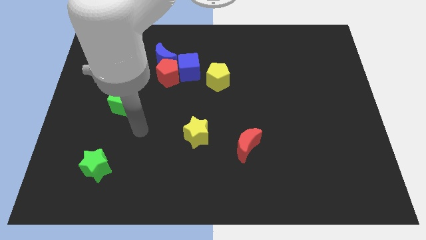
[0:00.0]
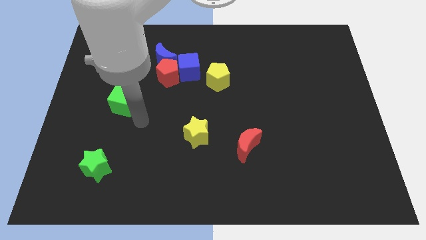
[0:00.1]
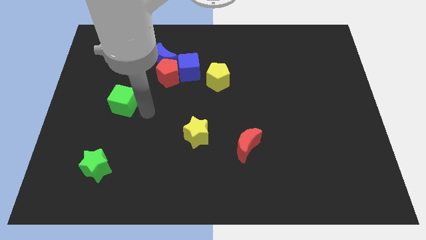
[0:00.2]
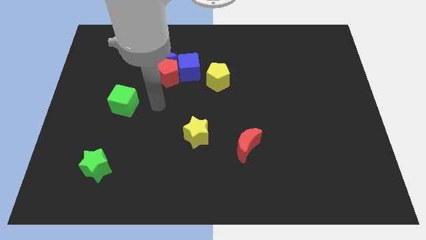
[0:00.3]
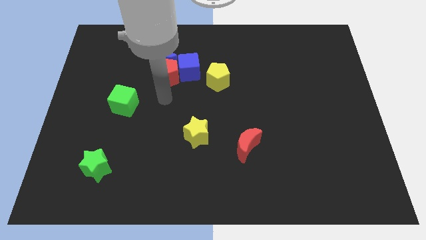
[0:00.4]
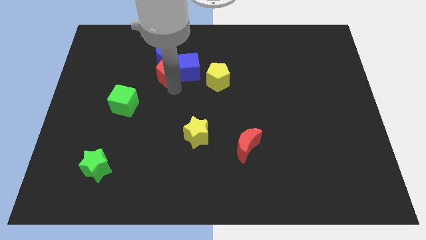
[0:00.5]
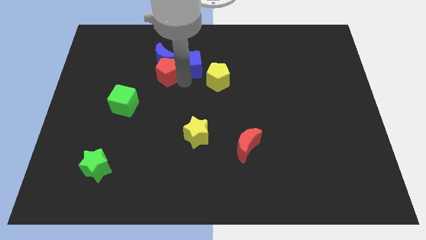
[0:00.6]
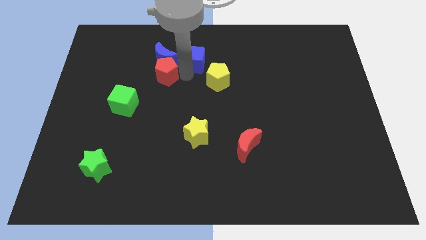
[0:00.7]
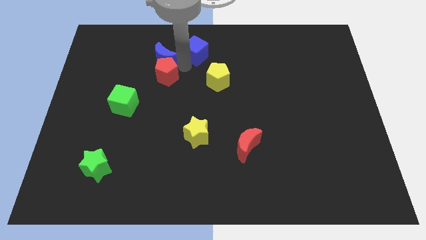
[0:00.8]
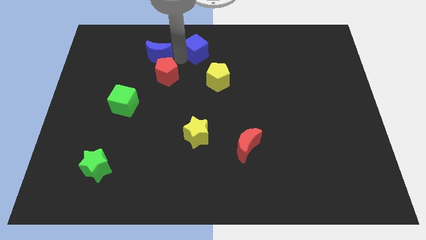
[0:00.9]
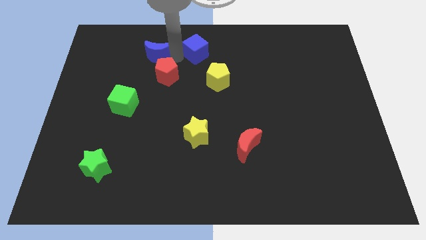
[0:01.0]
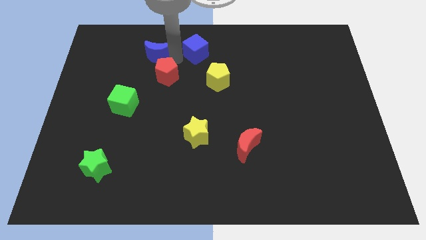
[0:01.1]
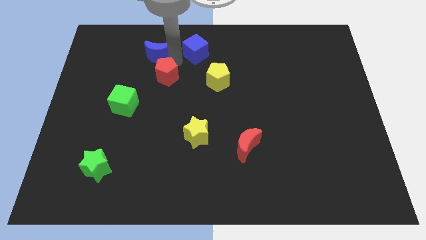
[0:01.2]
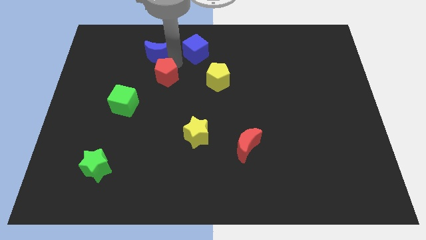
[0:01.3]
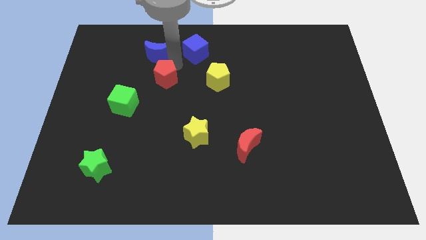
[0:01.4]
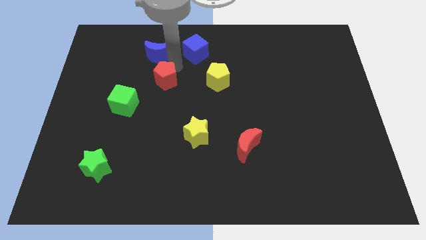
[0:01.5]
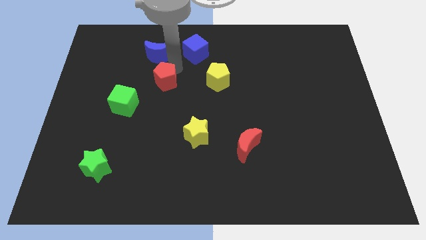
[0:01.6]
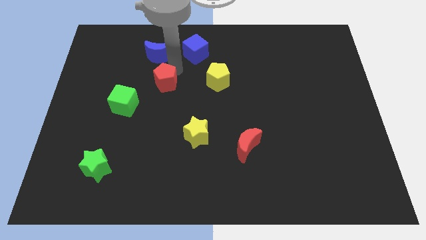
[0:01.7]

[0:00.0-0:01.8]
separate the red pentagon from the blue cube and blue moon

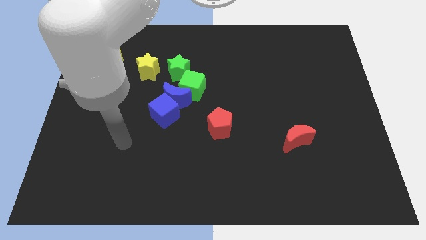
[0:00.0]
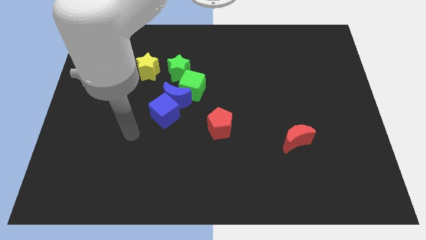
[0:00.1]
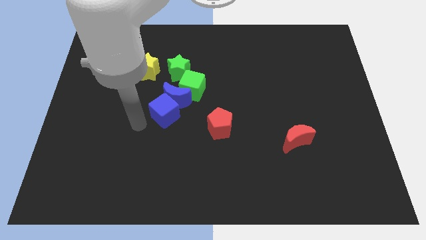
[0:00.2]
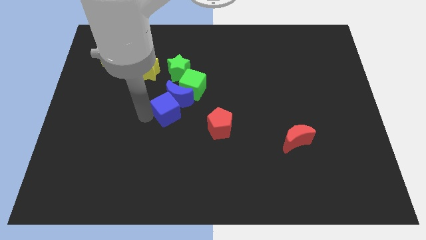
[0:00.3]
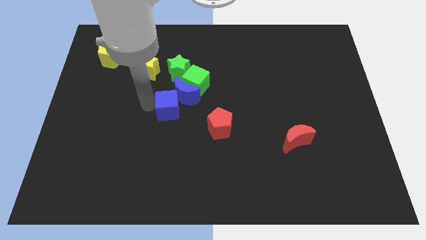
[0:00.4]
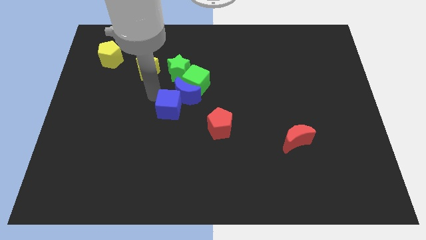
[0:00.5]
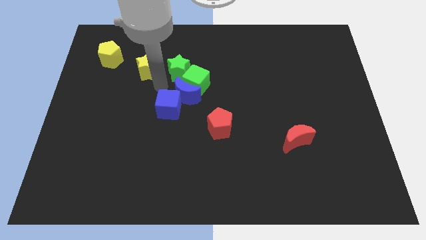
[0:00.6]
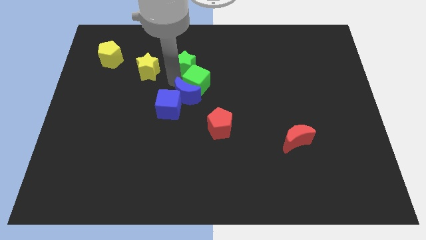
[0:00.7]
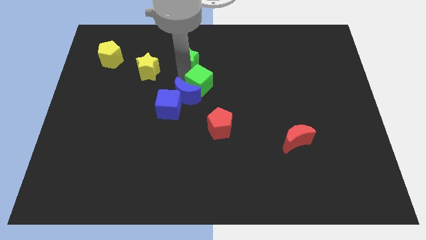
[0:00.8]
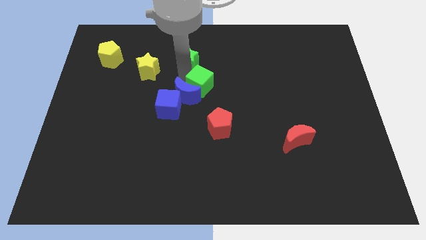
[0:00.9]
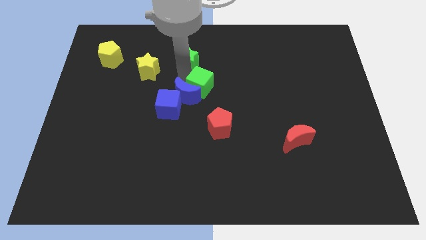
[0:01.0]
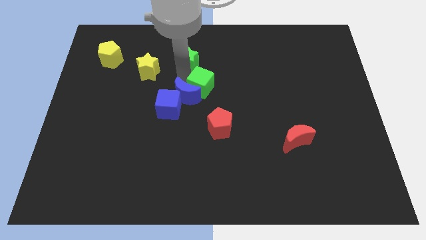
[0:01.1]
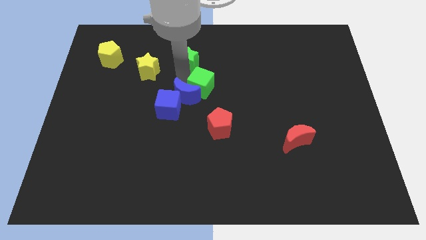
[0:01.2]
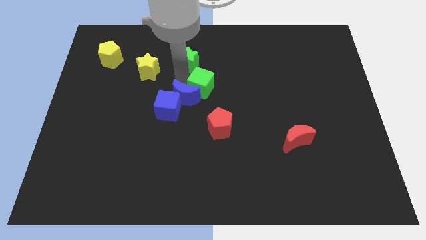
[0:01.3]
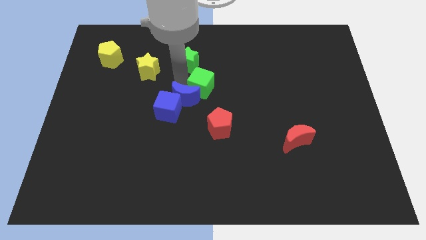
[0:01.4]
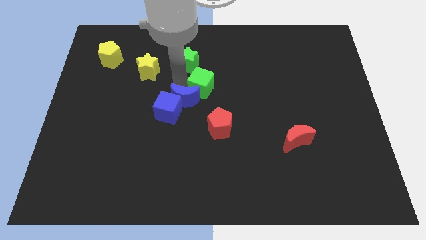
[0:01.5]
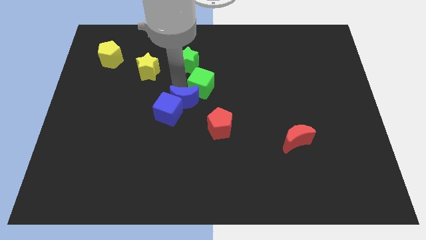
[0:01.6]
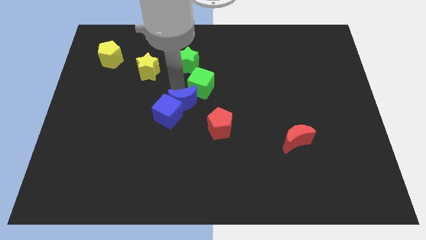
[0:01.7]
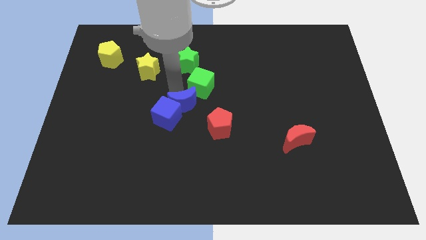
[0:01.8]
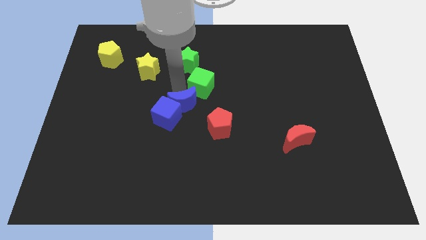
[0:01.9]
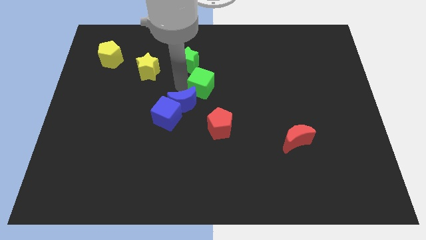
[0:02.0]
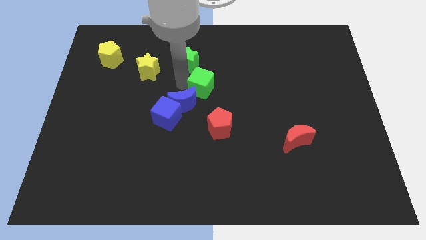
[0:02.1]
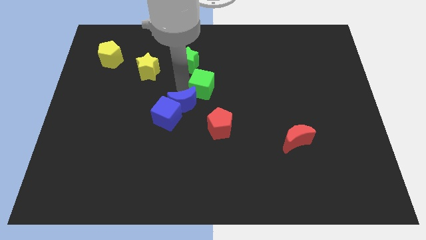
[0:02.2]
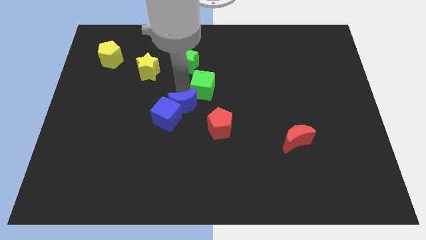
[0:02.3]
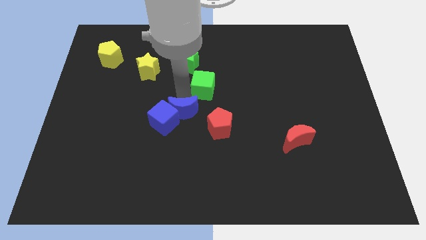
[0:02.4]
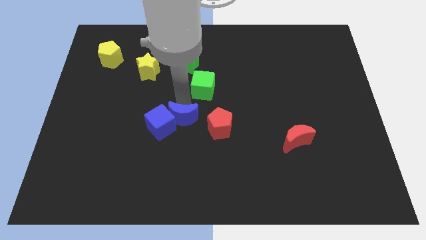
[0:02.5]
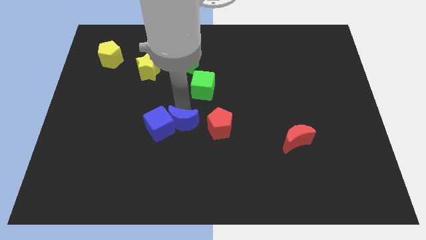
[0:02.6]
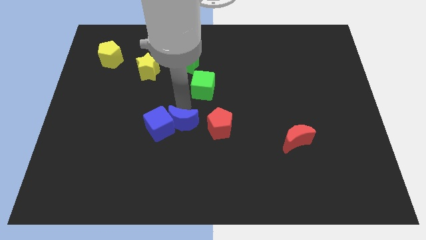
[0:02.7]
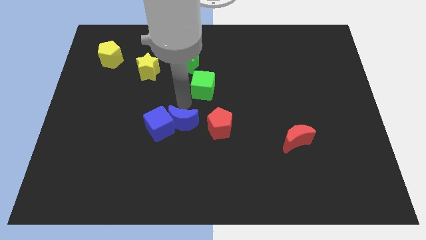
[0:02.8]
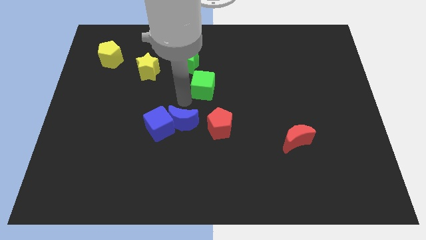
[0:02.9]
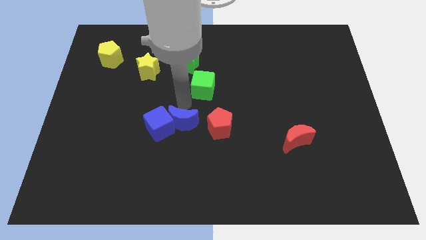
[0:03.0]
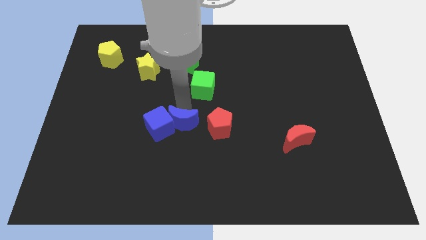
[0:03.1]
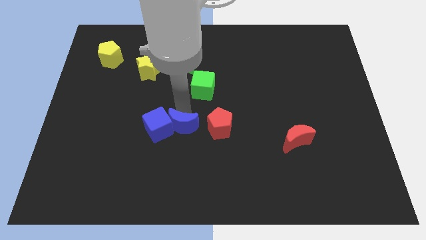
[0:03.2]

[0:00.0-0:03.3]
move the blue moon away from the blue cube, green cube, and green star

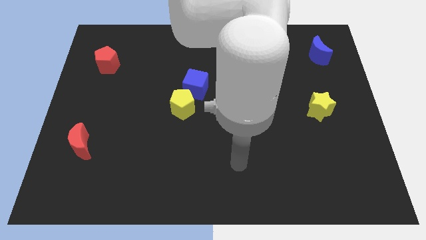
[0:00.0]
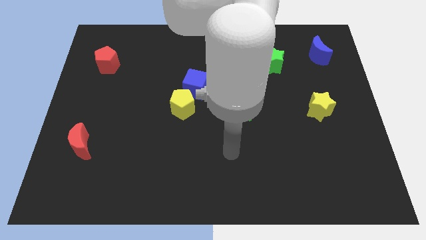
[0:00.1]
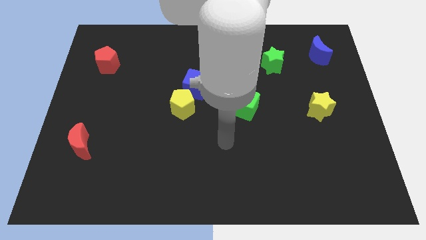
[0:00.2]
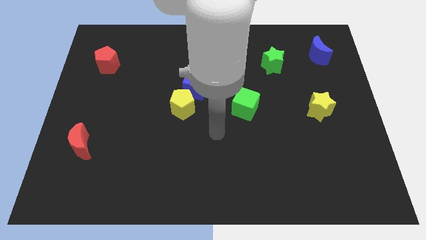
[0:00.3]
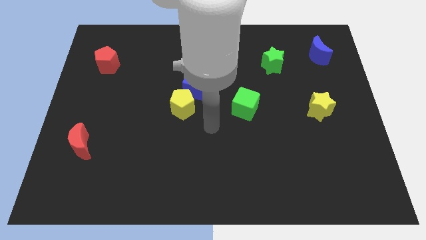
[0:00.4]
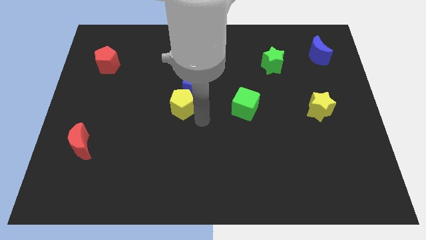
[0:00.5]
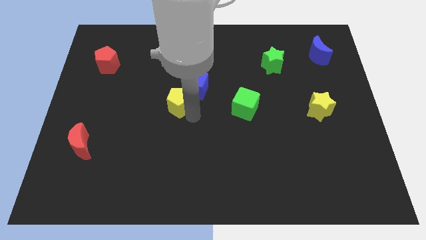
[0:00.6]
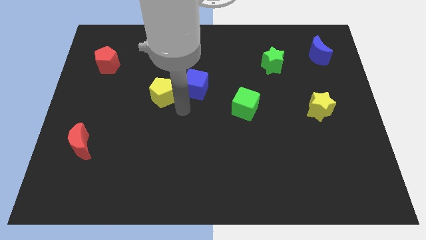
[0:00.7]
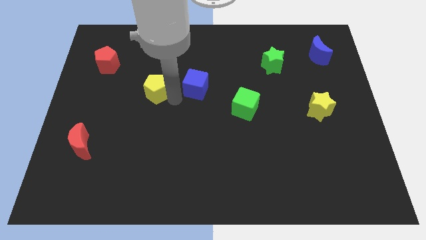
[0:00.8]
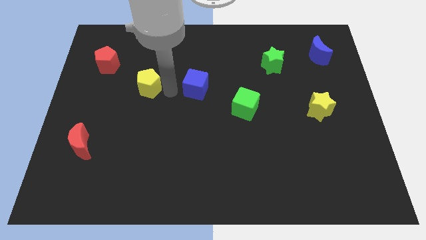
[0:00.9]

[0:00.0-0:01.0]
separate the blue cube from the yellow pentagon

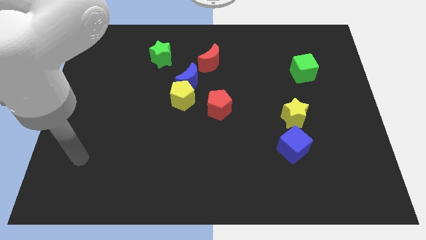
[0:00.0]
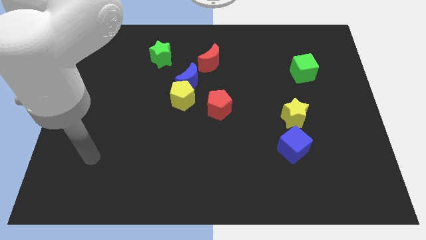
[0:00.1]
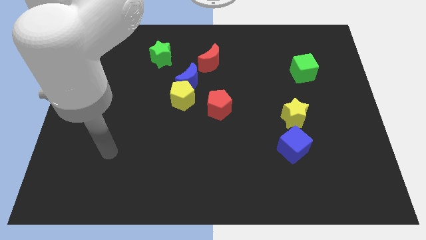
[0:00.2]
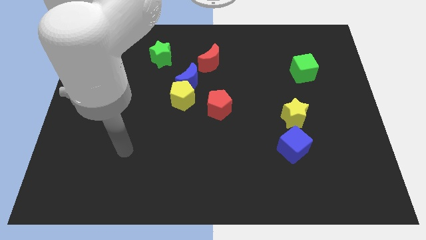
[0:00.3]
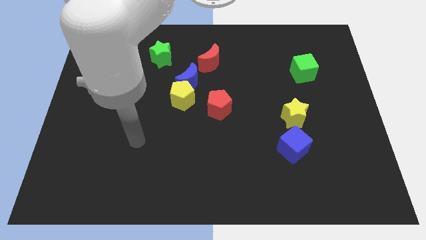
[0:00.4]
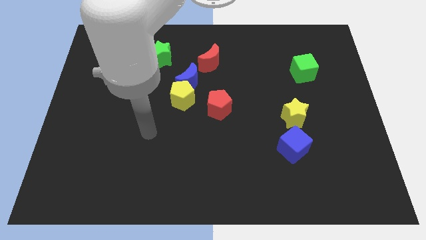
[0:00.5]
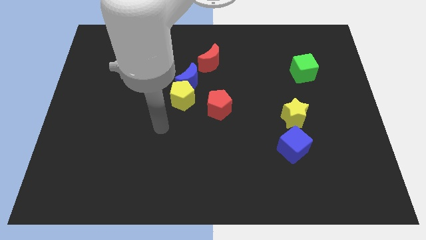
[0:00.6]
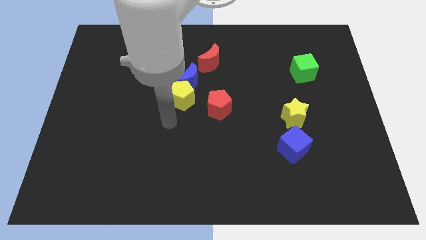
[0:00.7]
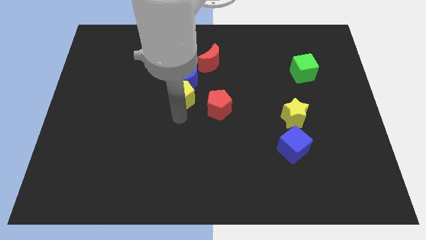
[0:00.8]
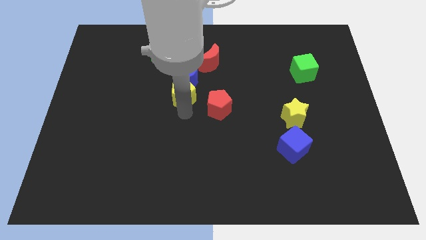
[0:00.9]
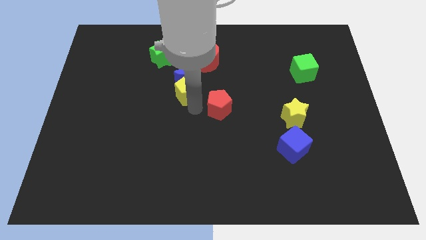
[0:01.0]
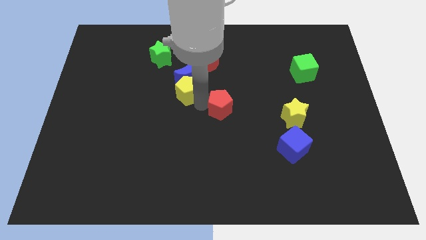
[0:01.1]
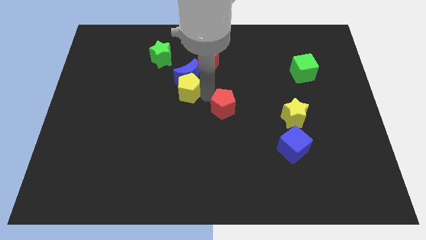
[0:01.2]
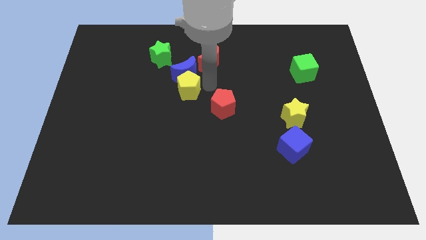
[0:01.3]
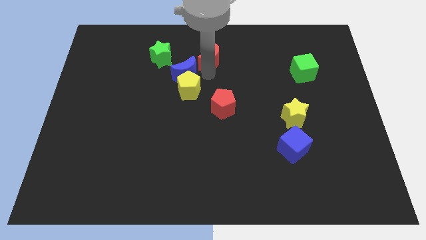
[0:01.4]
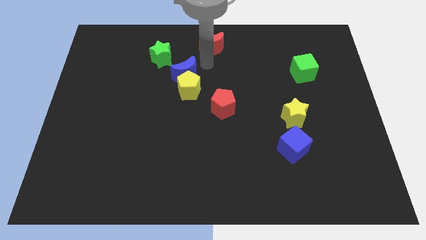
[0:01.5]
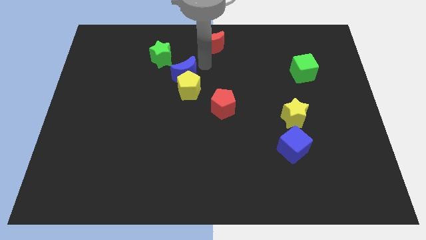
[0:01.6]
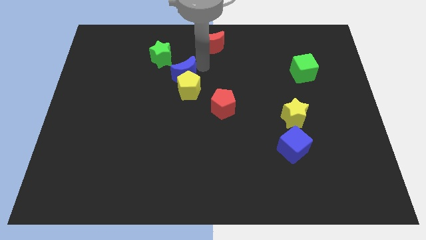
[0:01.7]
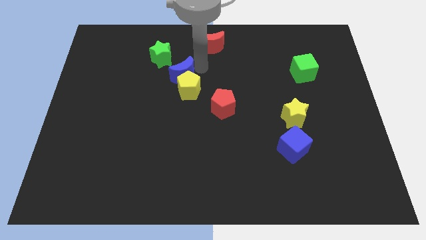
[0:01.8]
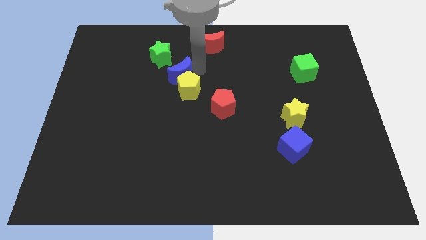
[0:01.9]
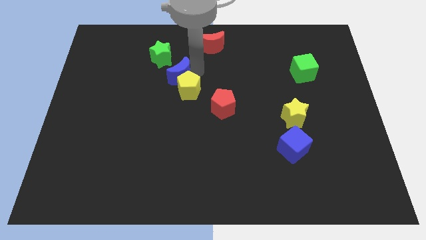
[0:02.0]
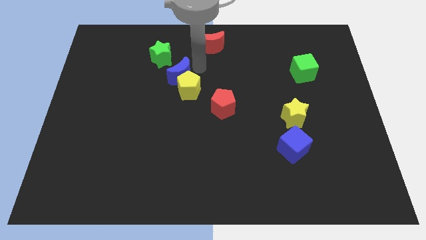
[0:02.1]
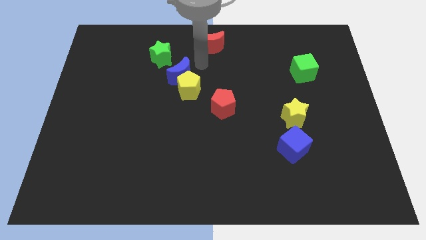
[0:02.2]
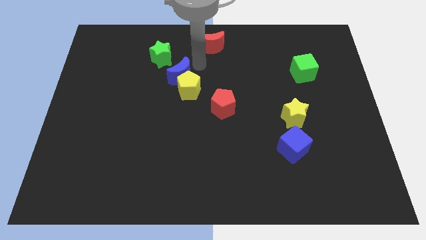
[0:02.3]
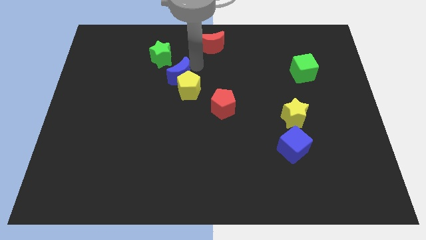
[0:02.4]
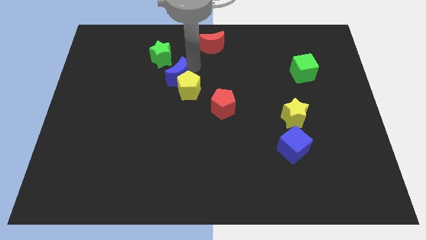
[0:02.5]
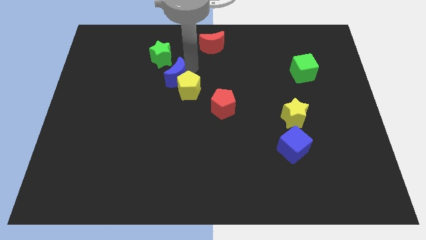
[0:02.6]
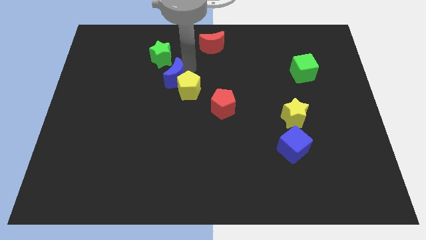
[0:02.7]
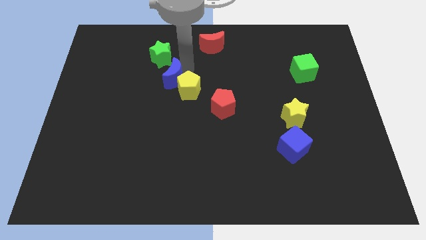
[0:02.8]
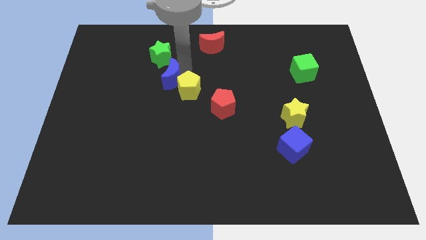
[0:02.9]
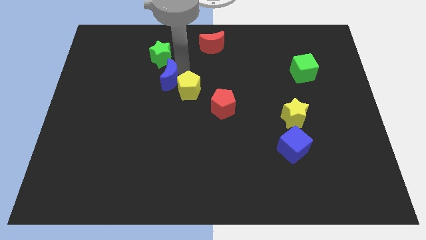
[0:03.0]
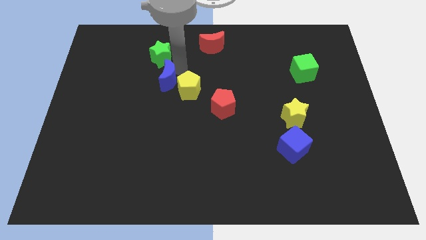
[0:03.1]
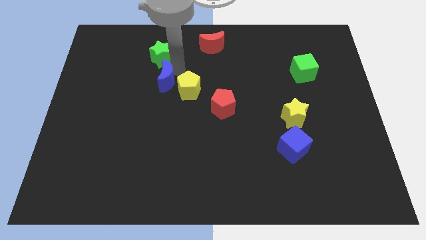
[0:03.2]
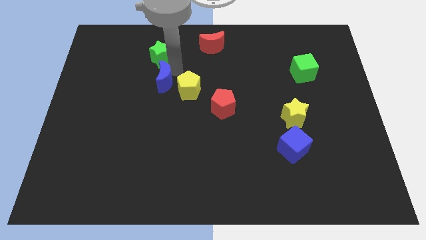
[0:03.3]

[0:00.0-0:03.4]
move the blue moon away from the yellow pentagon and red moon

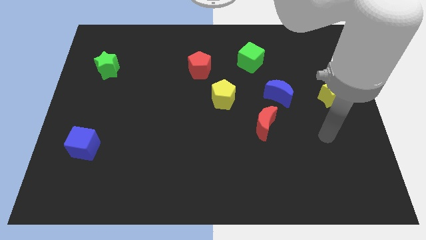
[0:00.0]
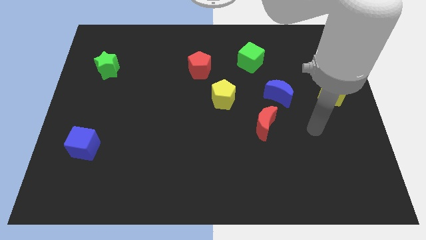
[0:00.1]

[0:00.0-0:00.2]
move the red moon away from the blue moon
